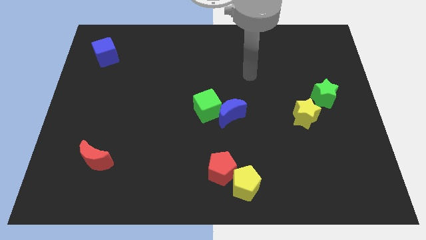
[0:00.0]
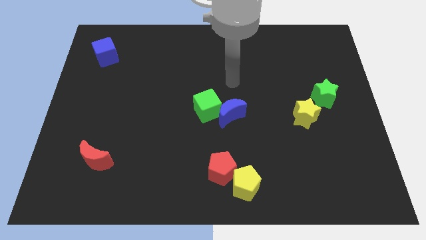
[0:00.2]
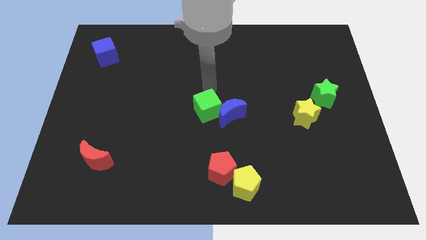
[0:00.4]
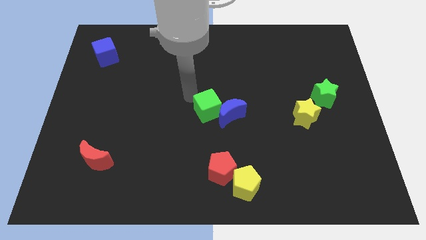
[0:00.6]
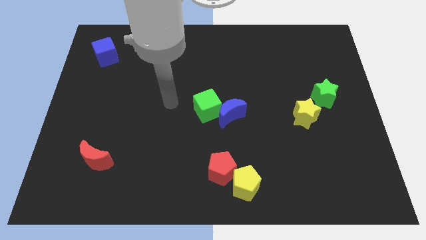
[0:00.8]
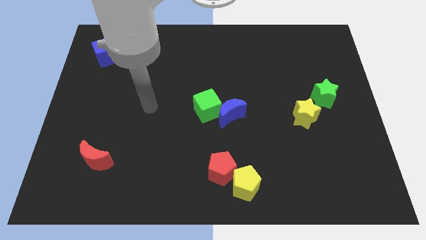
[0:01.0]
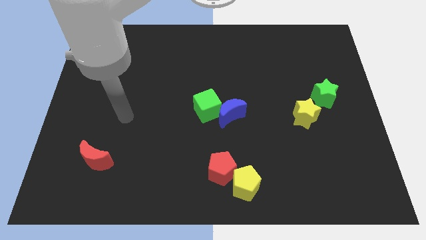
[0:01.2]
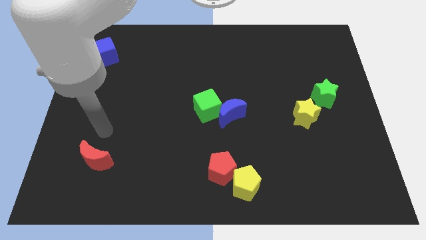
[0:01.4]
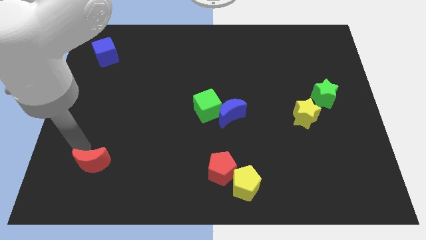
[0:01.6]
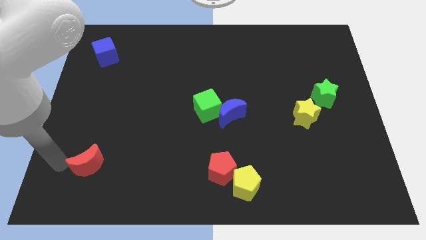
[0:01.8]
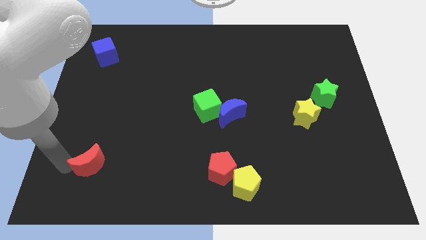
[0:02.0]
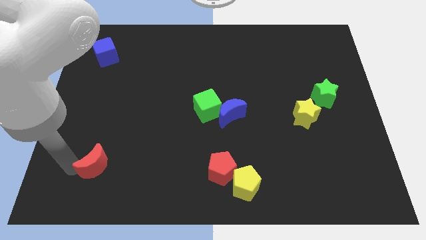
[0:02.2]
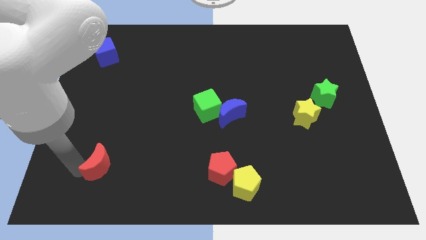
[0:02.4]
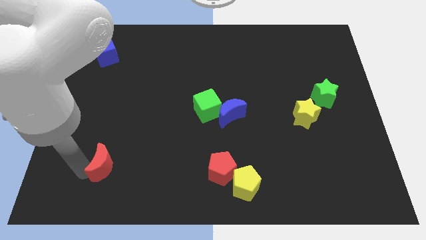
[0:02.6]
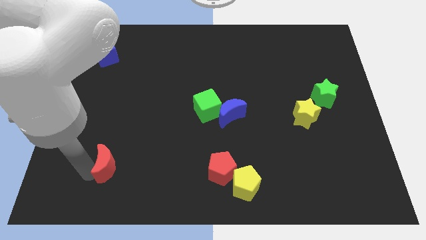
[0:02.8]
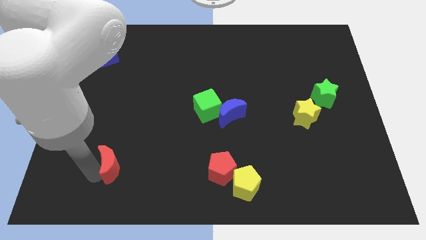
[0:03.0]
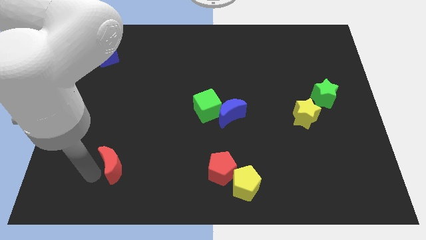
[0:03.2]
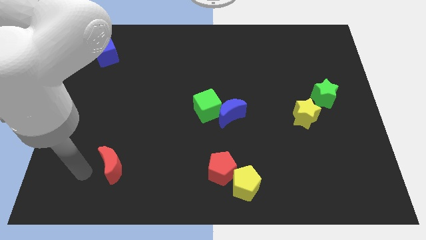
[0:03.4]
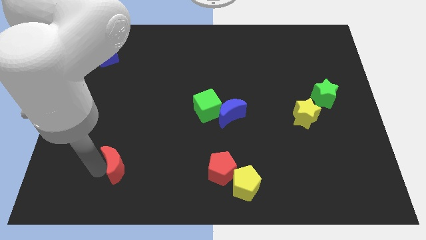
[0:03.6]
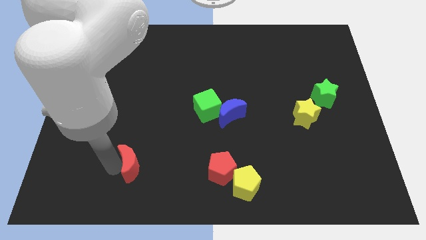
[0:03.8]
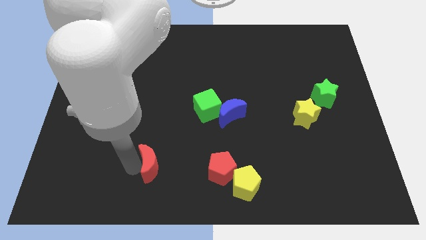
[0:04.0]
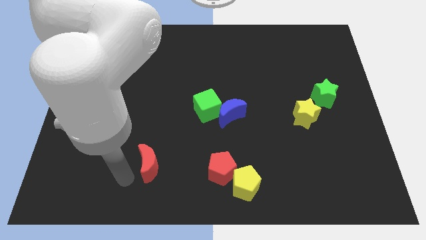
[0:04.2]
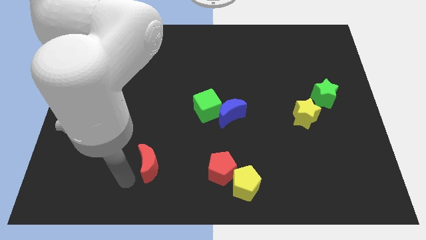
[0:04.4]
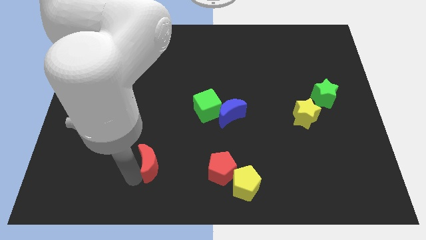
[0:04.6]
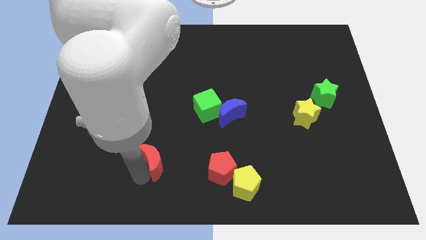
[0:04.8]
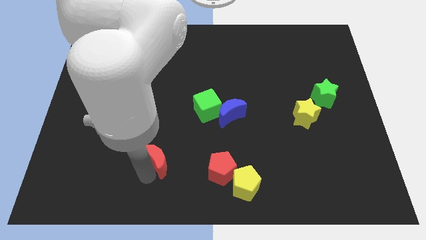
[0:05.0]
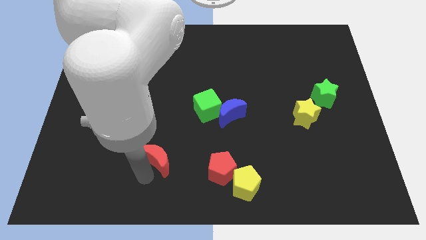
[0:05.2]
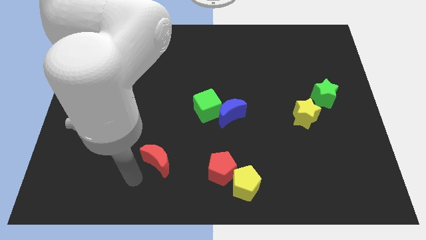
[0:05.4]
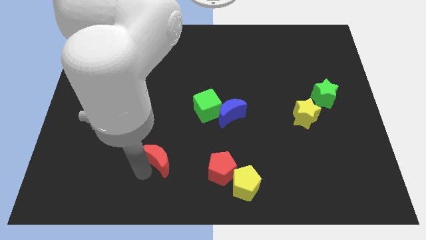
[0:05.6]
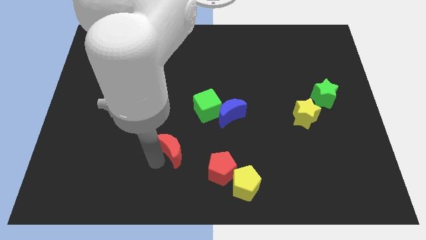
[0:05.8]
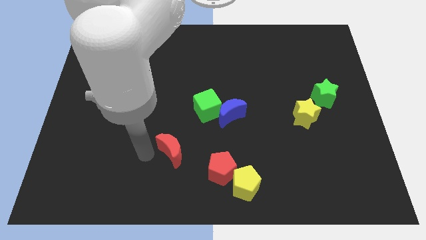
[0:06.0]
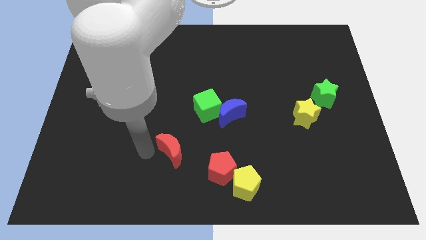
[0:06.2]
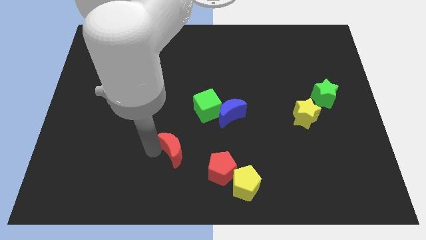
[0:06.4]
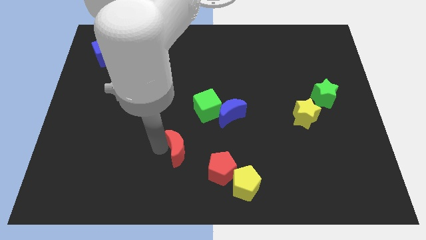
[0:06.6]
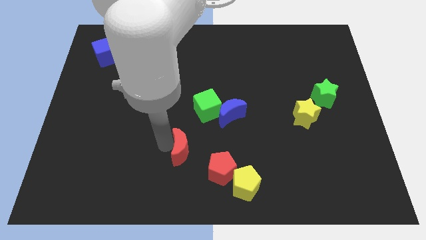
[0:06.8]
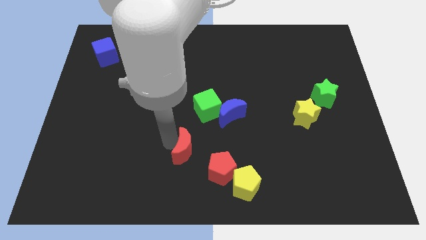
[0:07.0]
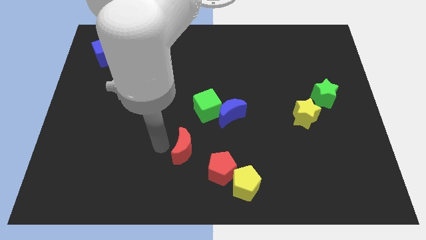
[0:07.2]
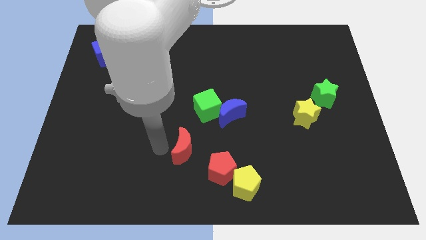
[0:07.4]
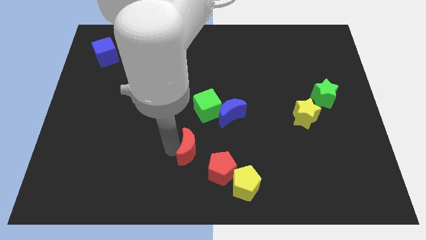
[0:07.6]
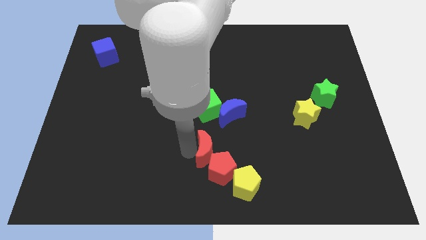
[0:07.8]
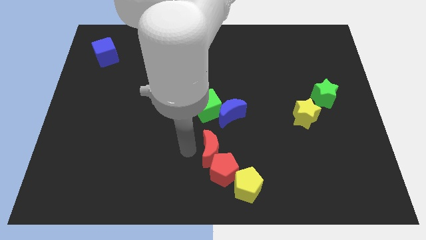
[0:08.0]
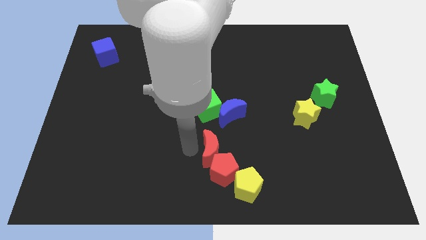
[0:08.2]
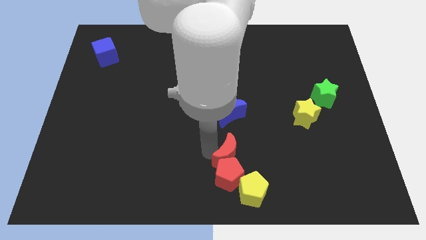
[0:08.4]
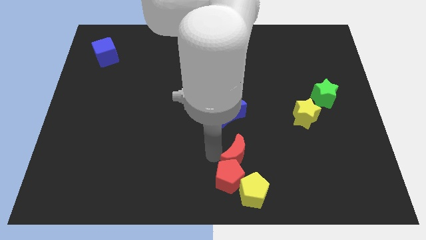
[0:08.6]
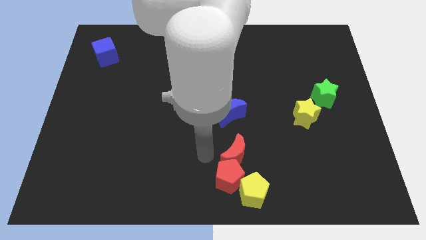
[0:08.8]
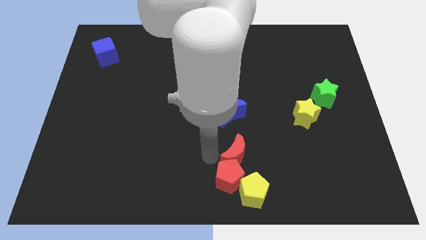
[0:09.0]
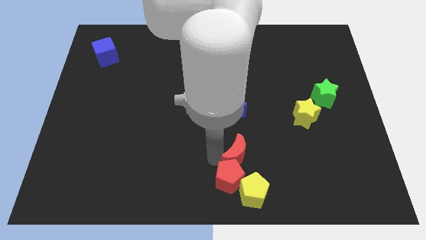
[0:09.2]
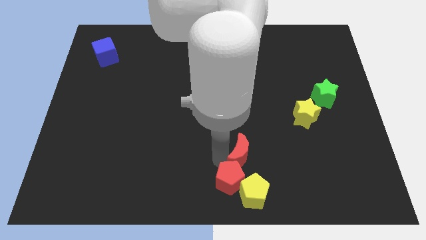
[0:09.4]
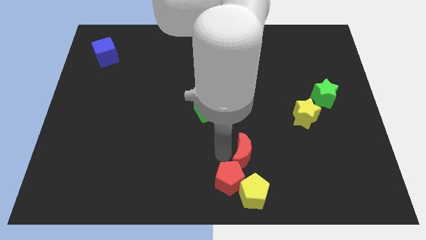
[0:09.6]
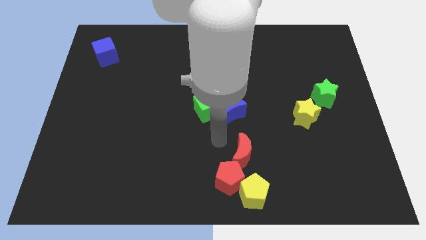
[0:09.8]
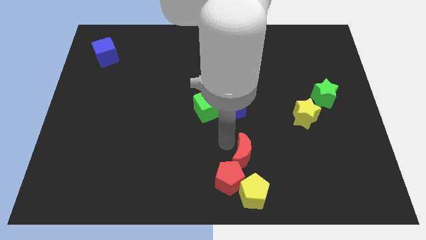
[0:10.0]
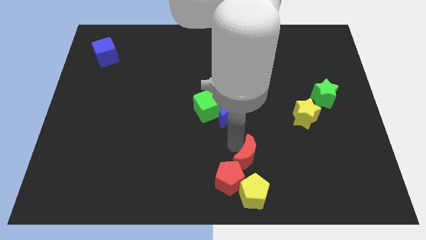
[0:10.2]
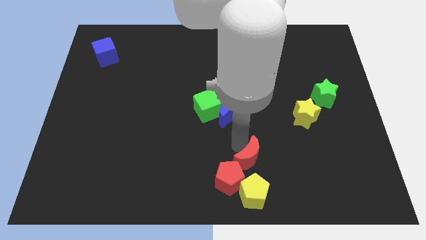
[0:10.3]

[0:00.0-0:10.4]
put the red moon to the right of the red pentagon

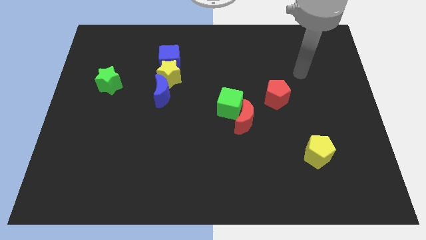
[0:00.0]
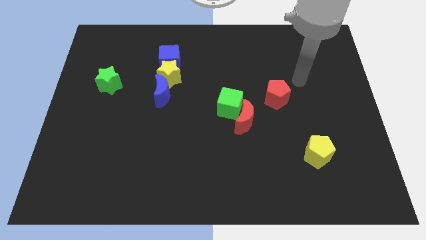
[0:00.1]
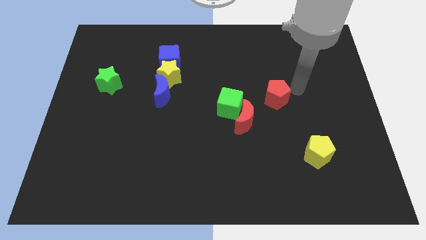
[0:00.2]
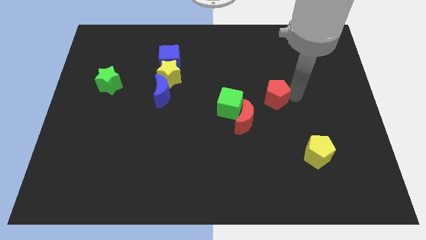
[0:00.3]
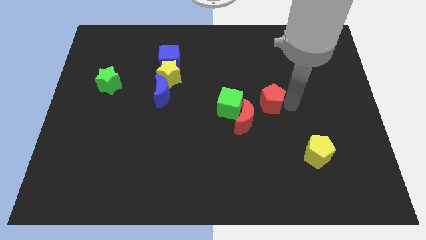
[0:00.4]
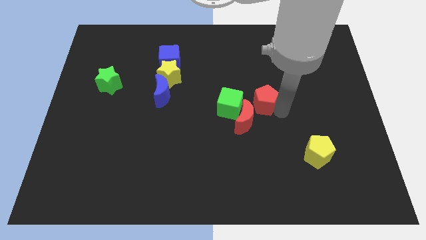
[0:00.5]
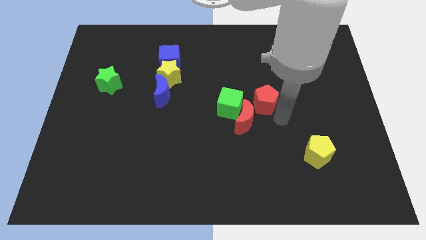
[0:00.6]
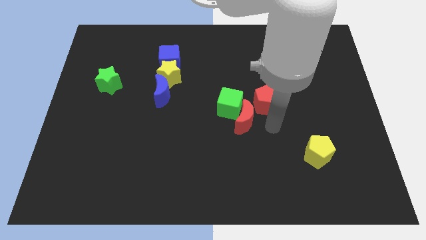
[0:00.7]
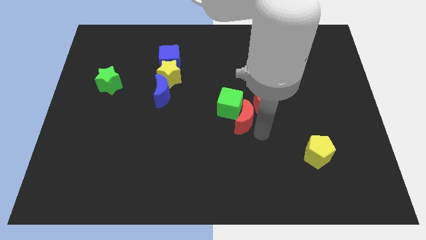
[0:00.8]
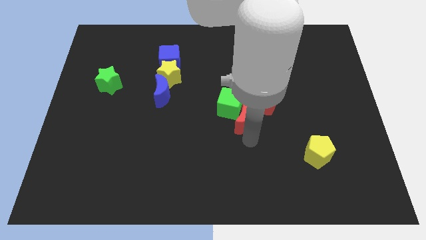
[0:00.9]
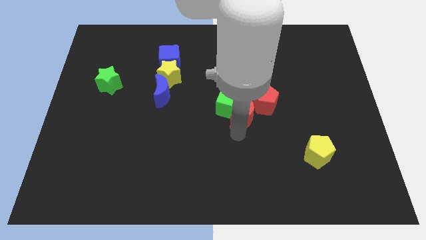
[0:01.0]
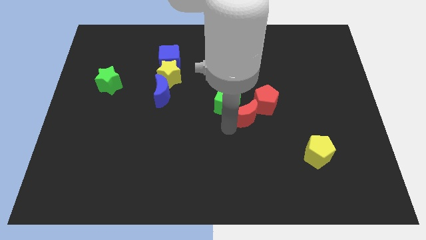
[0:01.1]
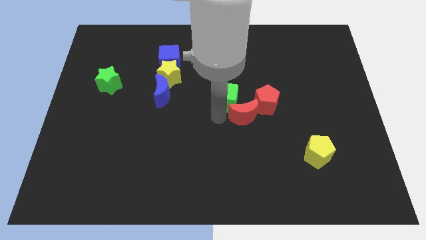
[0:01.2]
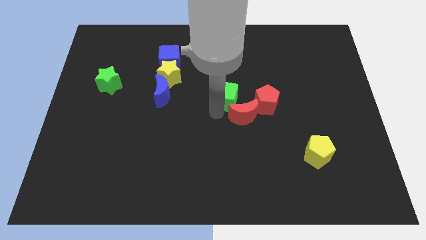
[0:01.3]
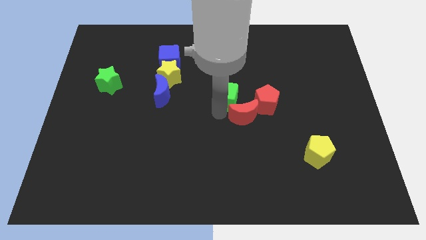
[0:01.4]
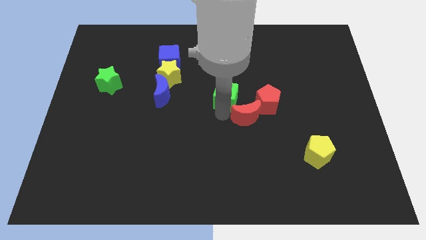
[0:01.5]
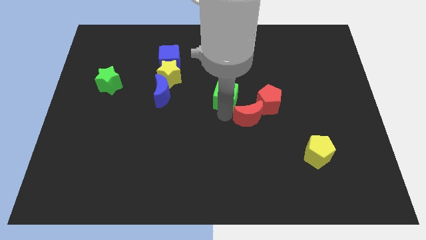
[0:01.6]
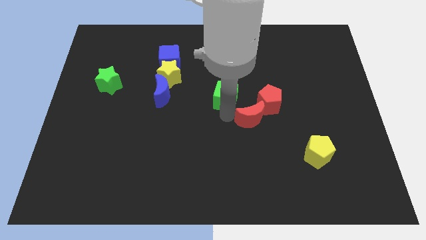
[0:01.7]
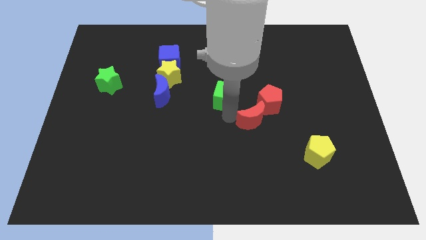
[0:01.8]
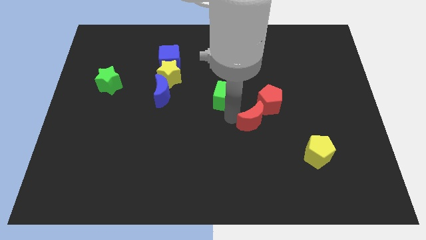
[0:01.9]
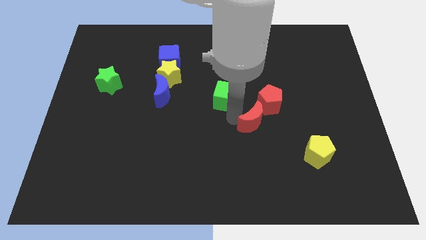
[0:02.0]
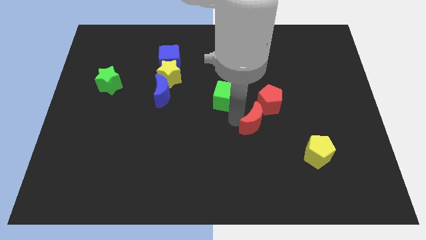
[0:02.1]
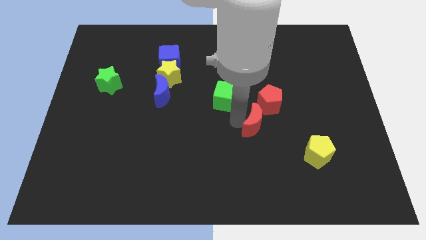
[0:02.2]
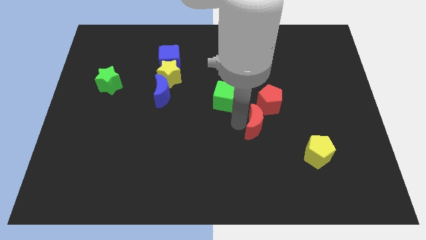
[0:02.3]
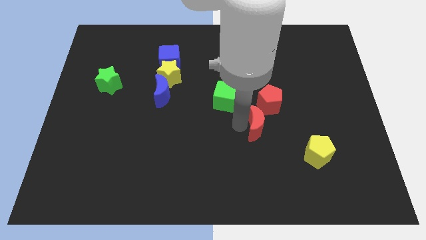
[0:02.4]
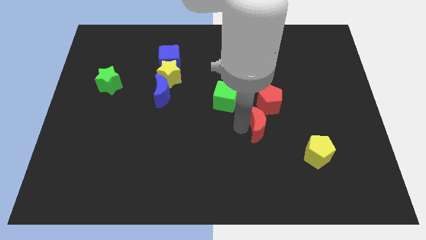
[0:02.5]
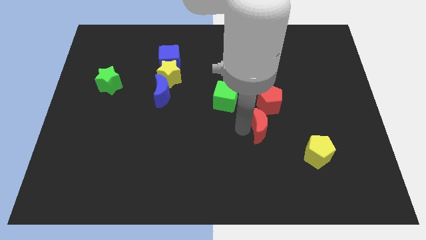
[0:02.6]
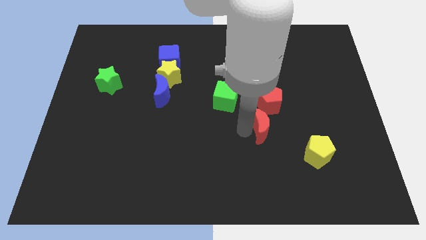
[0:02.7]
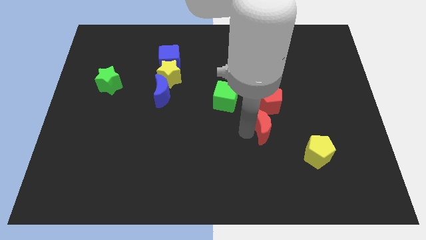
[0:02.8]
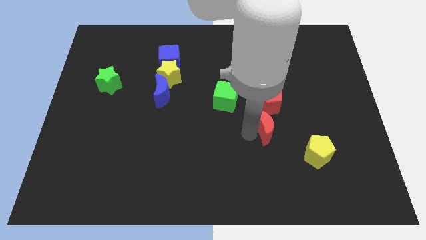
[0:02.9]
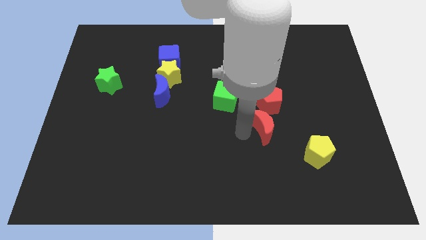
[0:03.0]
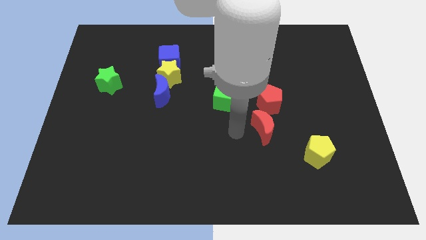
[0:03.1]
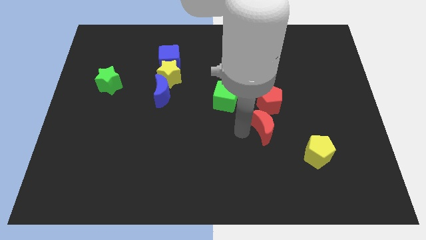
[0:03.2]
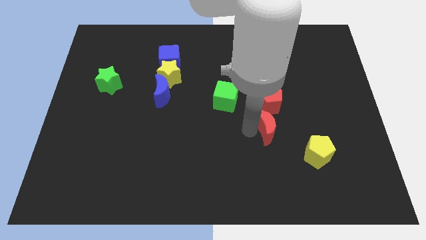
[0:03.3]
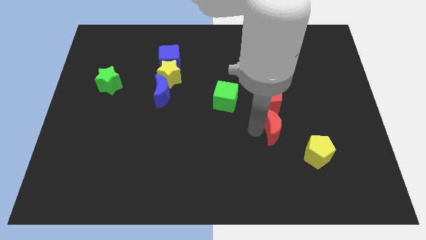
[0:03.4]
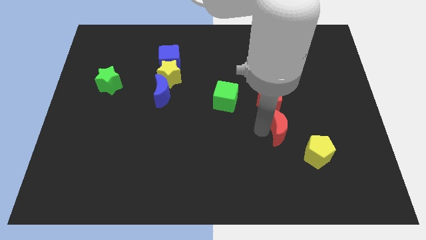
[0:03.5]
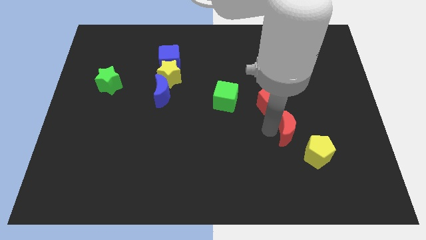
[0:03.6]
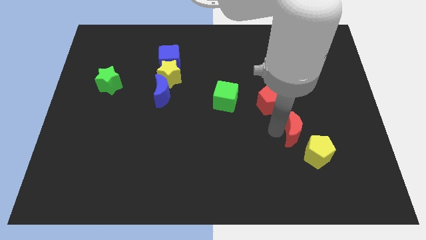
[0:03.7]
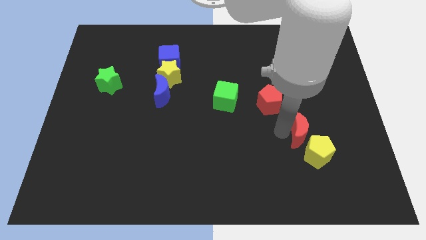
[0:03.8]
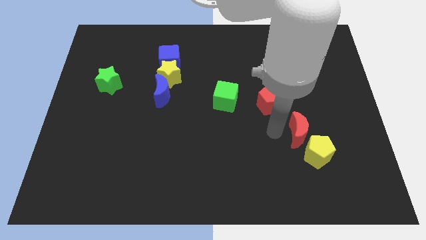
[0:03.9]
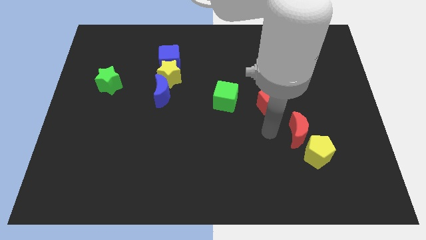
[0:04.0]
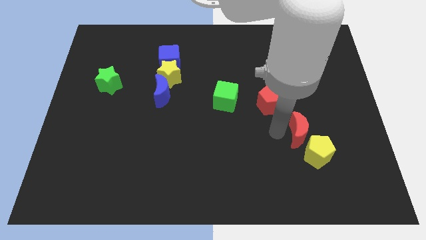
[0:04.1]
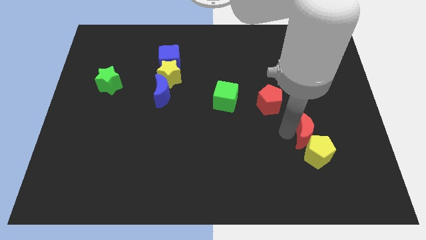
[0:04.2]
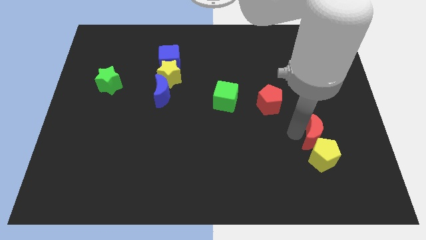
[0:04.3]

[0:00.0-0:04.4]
move the red moon diagonally up and to the right of the yellow pentagon
